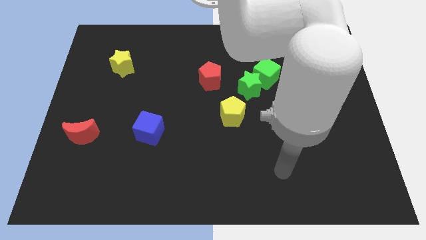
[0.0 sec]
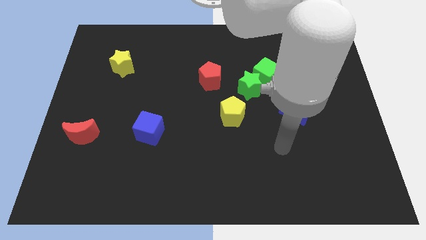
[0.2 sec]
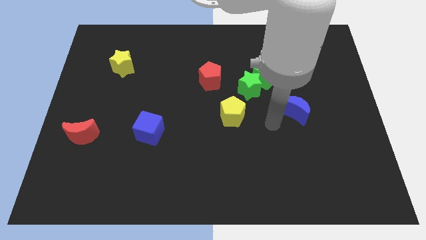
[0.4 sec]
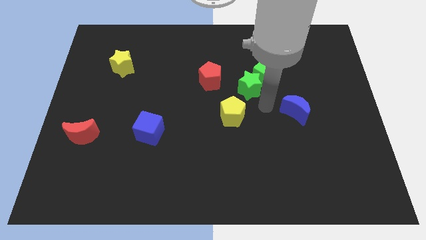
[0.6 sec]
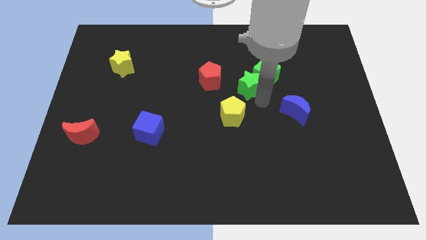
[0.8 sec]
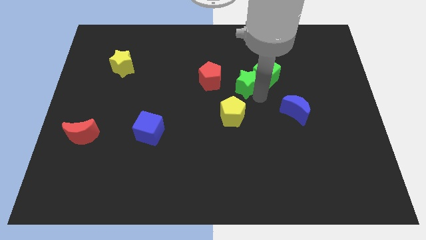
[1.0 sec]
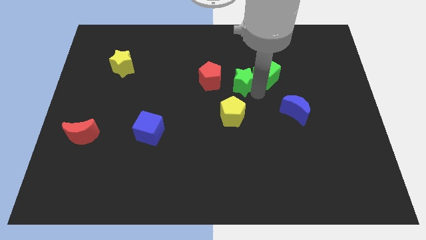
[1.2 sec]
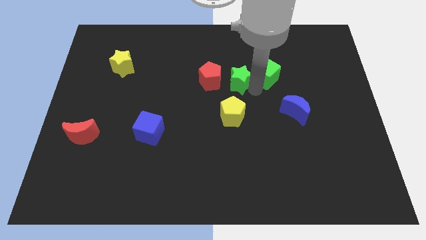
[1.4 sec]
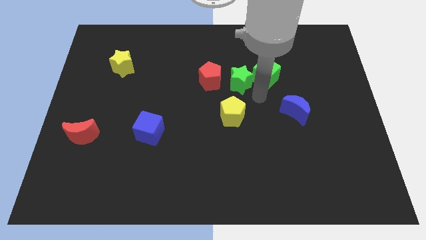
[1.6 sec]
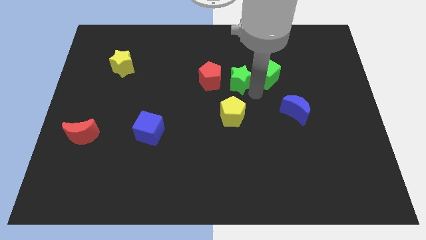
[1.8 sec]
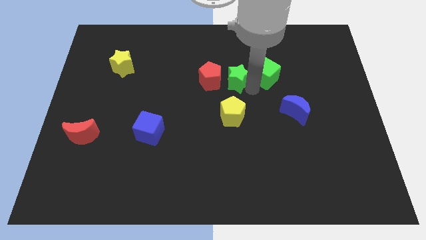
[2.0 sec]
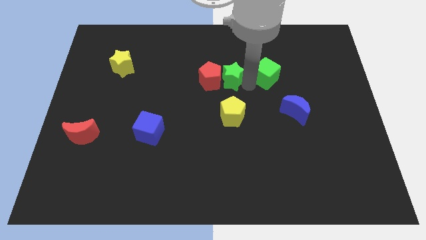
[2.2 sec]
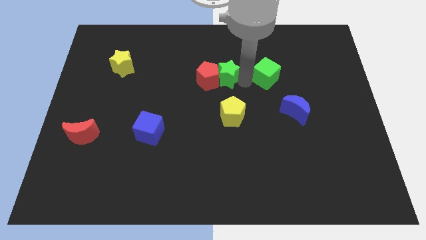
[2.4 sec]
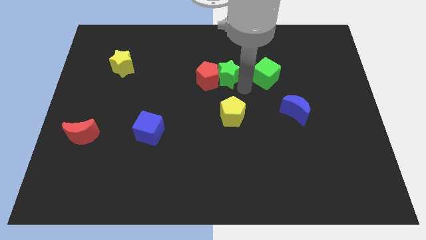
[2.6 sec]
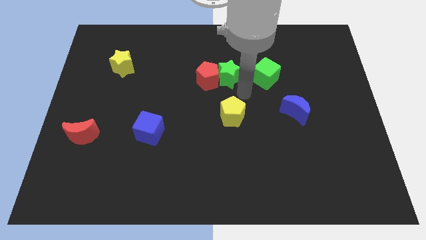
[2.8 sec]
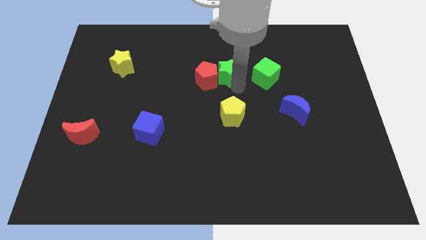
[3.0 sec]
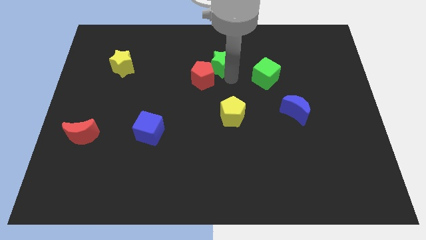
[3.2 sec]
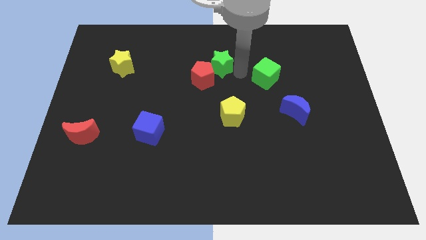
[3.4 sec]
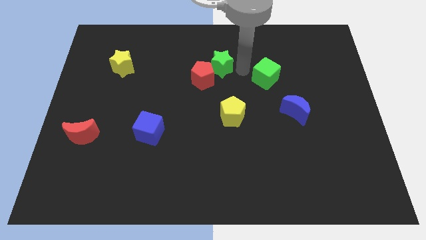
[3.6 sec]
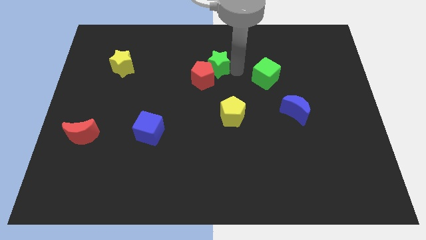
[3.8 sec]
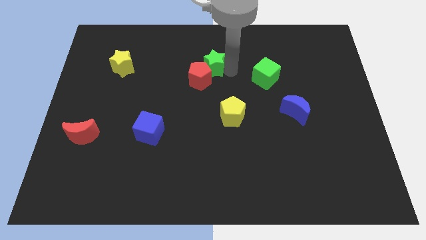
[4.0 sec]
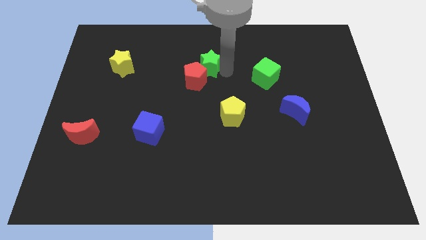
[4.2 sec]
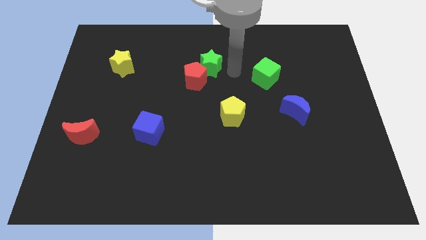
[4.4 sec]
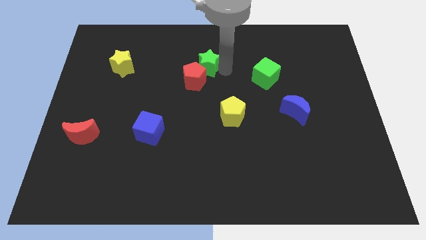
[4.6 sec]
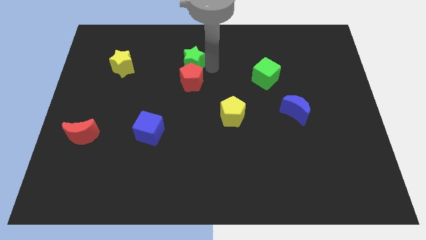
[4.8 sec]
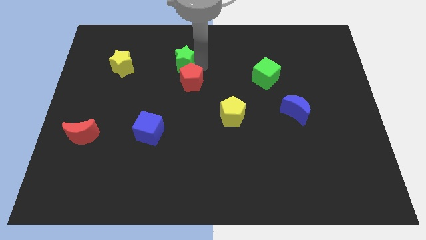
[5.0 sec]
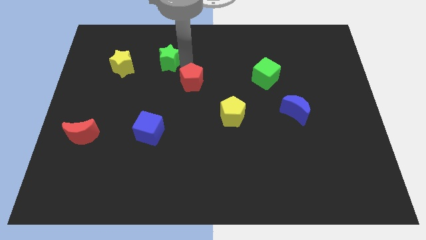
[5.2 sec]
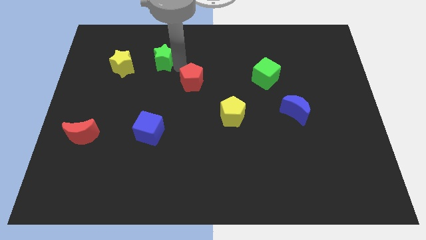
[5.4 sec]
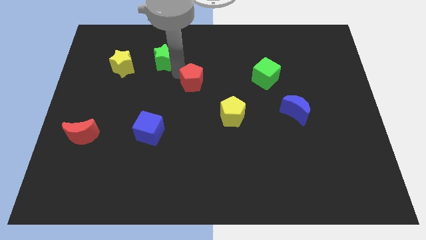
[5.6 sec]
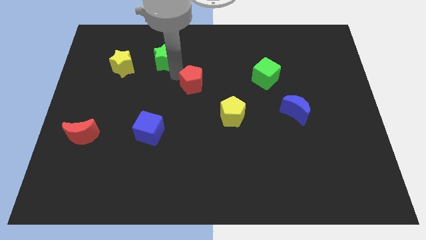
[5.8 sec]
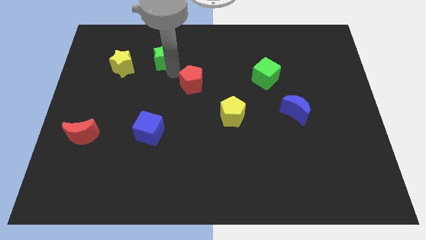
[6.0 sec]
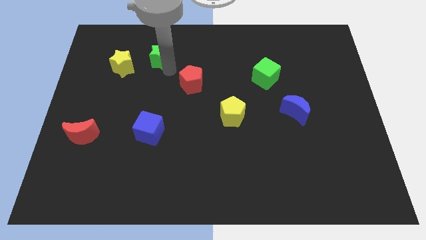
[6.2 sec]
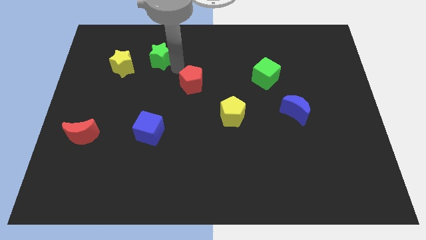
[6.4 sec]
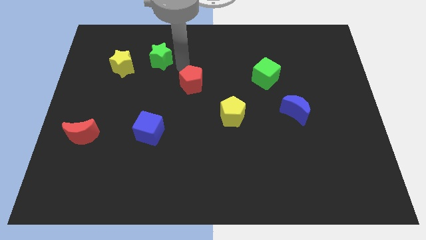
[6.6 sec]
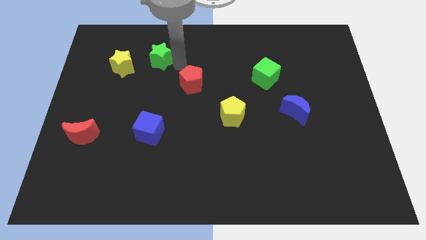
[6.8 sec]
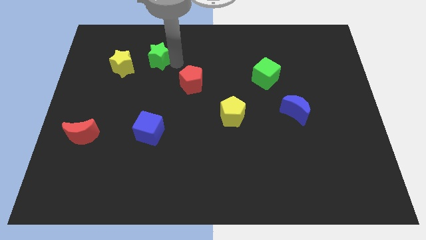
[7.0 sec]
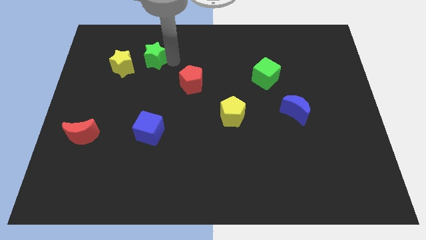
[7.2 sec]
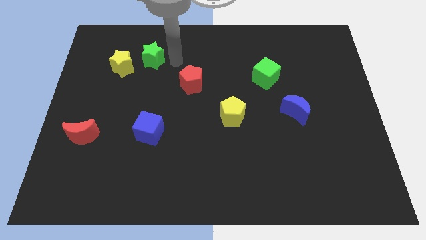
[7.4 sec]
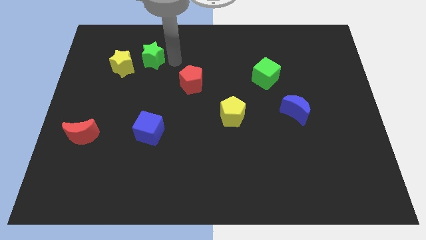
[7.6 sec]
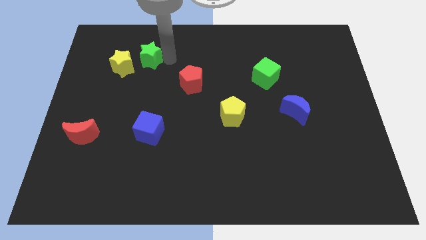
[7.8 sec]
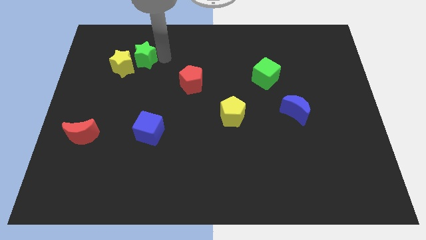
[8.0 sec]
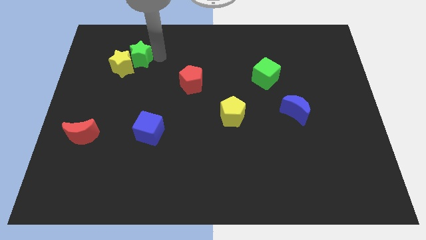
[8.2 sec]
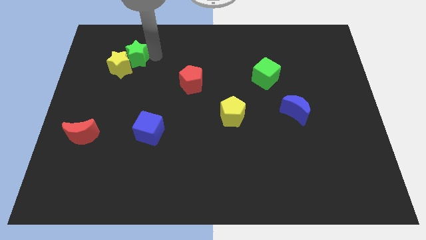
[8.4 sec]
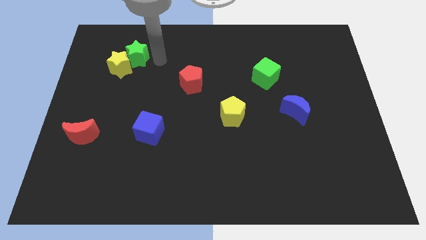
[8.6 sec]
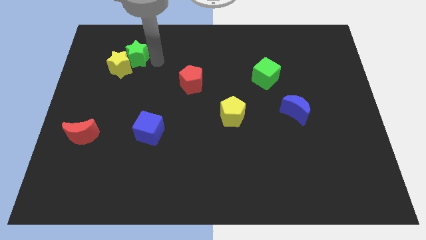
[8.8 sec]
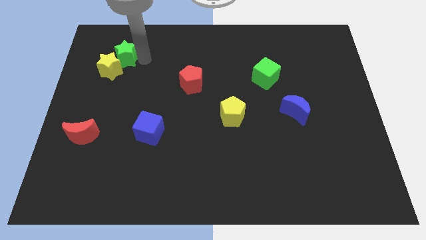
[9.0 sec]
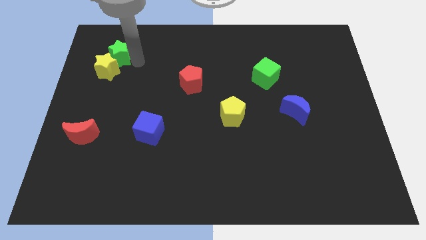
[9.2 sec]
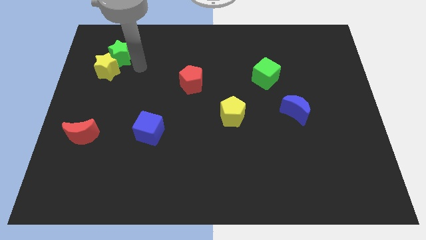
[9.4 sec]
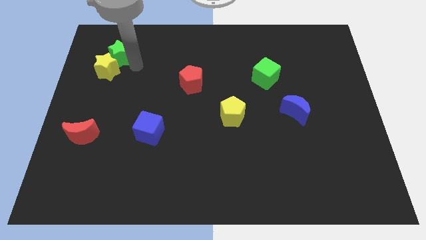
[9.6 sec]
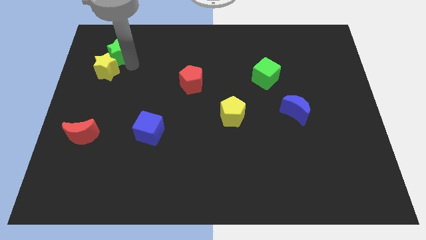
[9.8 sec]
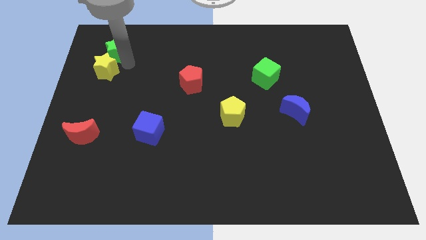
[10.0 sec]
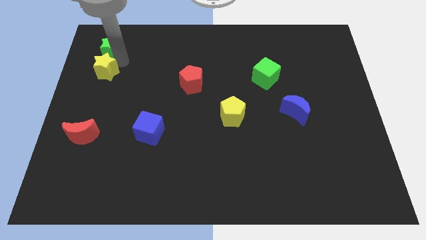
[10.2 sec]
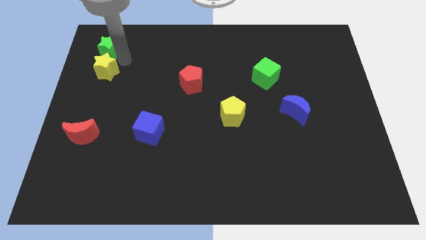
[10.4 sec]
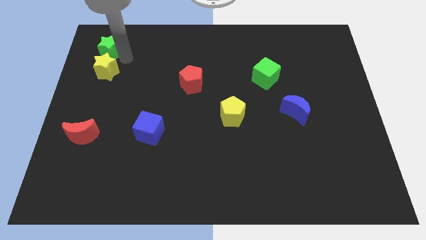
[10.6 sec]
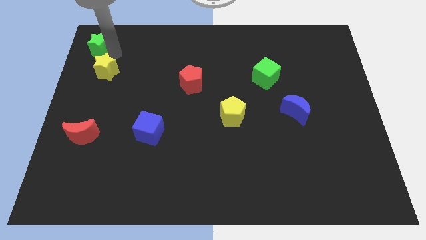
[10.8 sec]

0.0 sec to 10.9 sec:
slide the green star to the top left corner

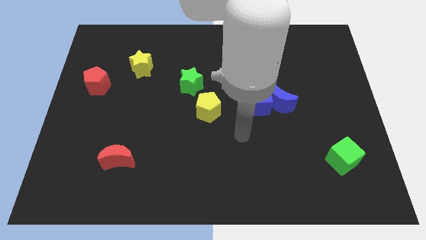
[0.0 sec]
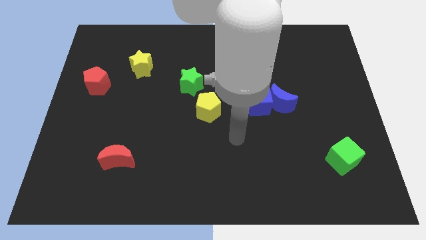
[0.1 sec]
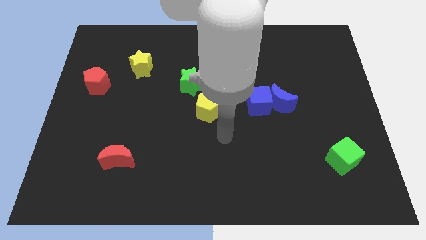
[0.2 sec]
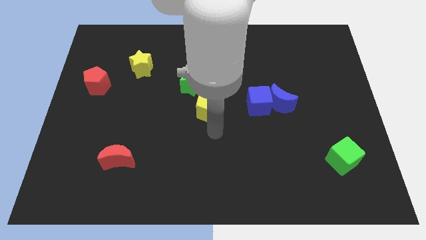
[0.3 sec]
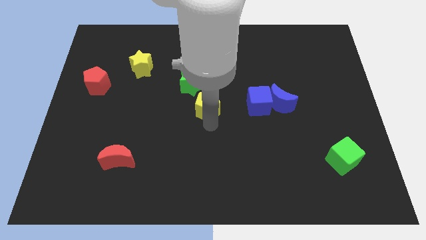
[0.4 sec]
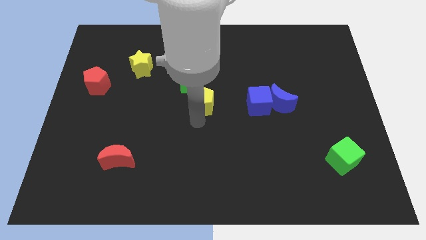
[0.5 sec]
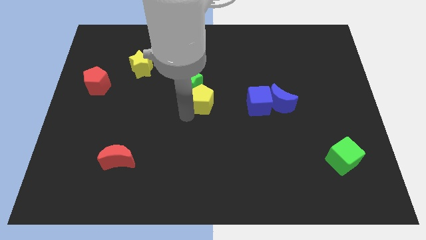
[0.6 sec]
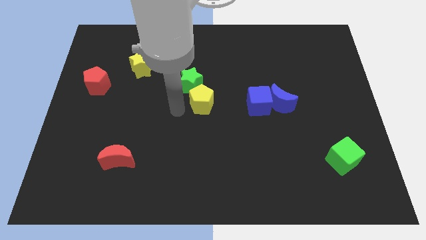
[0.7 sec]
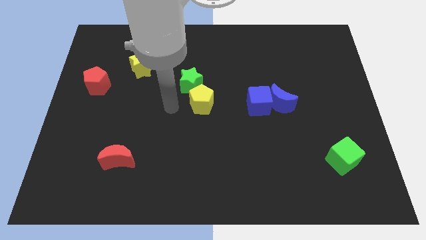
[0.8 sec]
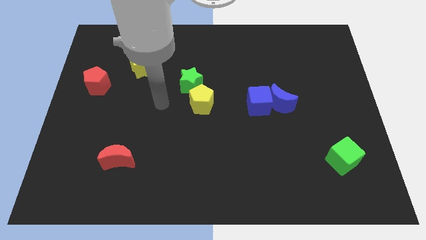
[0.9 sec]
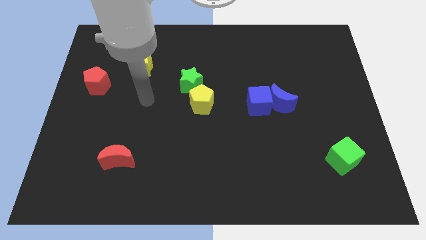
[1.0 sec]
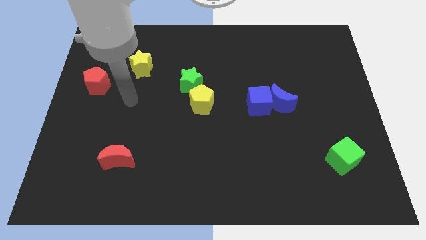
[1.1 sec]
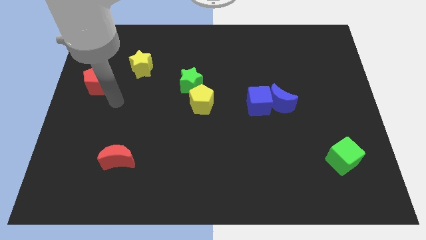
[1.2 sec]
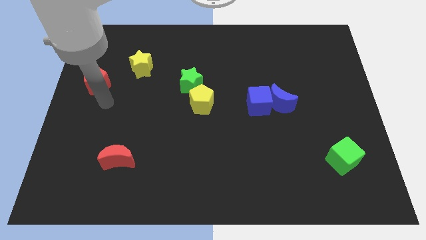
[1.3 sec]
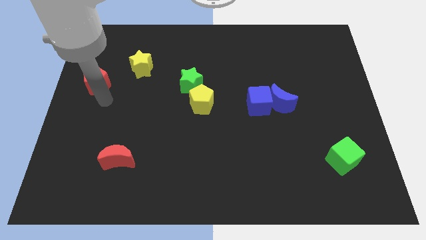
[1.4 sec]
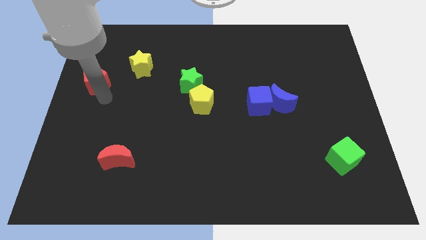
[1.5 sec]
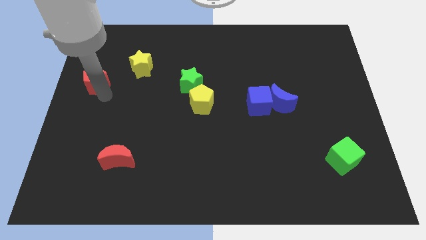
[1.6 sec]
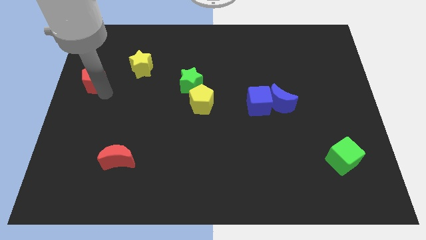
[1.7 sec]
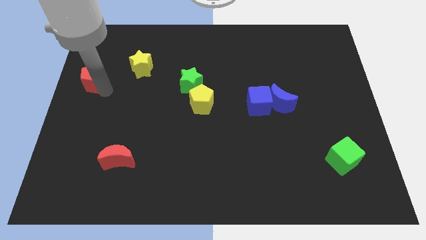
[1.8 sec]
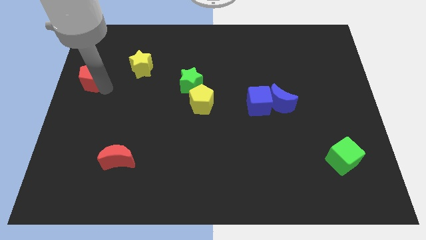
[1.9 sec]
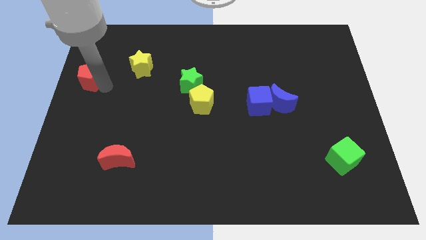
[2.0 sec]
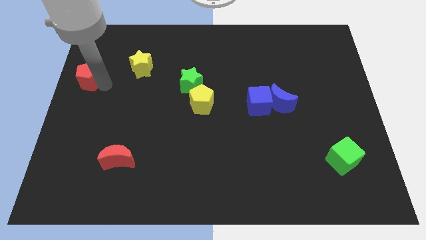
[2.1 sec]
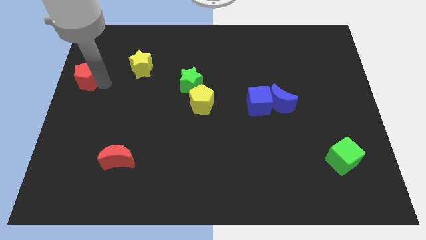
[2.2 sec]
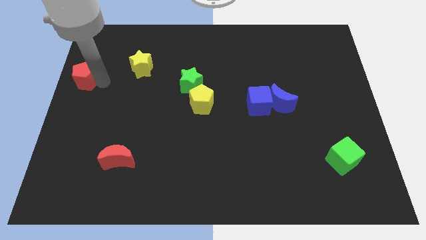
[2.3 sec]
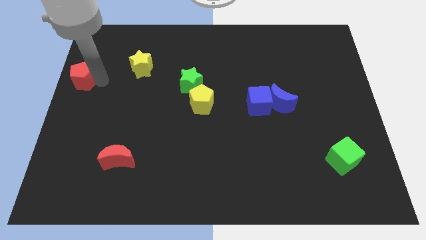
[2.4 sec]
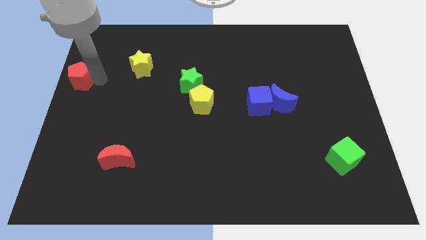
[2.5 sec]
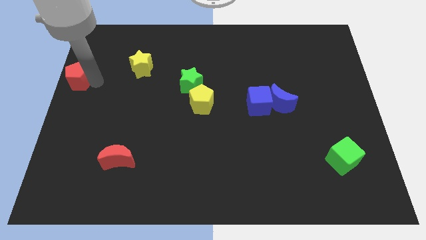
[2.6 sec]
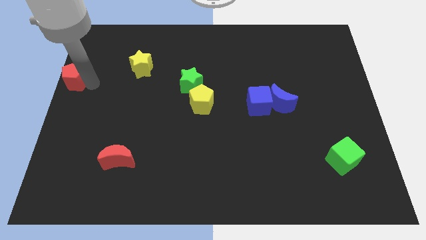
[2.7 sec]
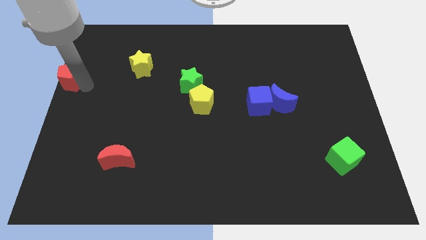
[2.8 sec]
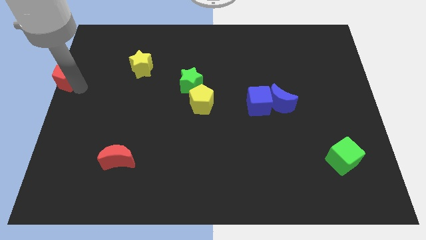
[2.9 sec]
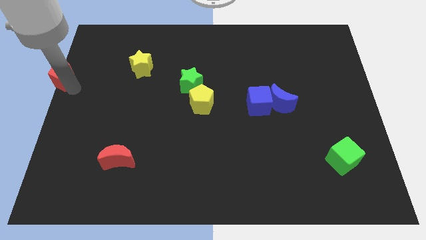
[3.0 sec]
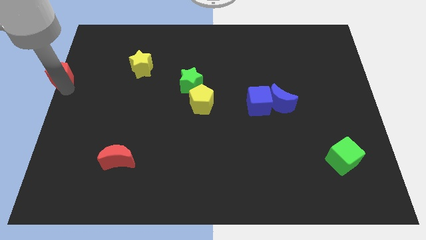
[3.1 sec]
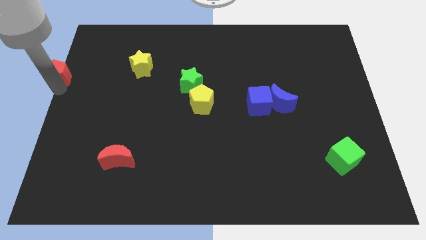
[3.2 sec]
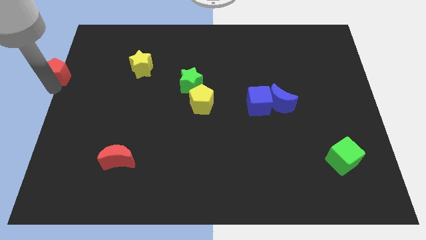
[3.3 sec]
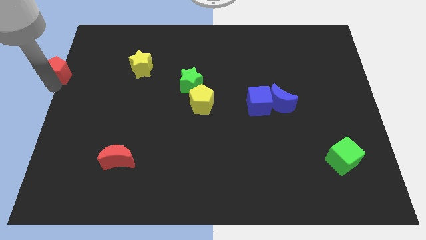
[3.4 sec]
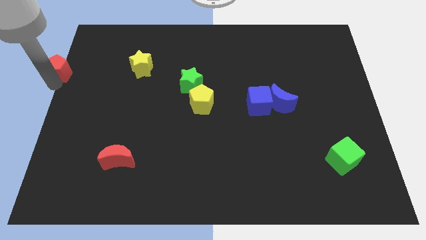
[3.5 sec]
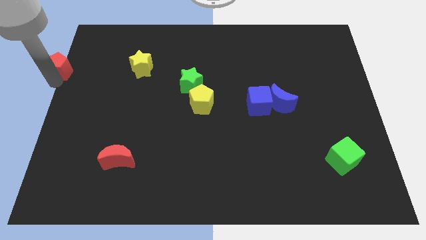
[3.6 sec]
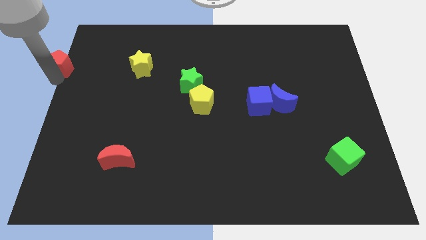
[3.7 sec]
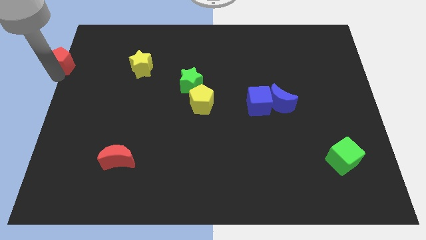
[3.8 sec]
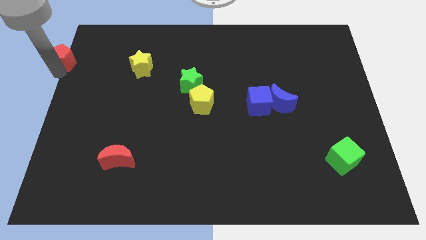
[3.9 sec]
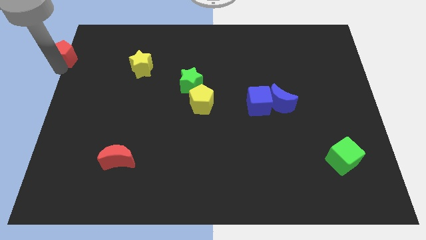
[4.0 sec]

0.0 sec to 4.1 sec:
slide the red pentagon to the top left corner
